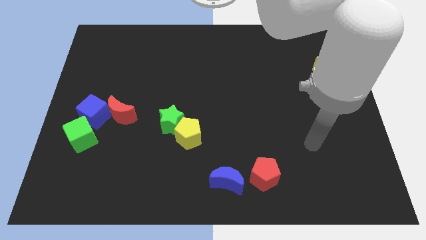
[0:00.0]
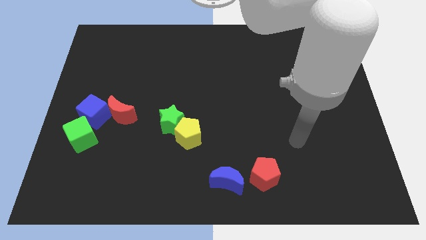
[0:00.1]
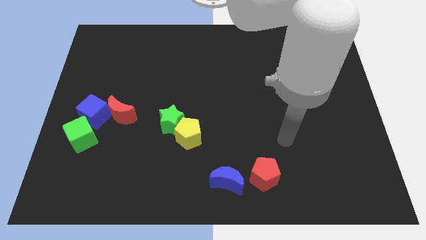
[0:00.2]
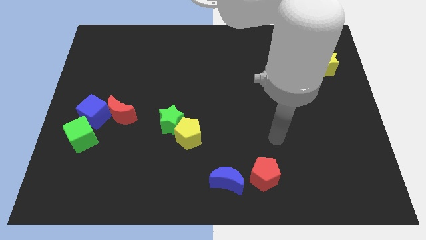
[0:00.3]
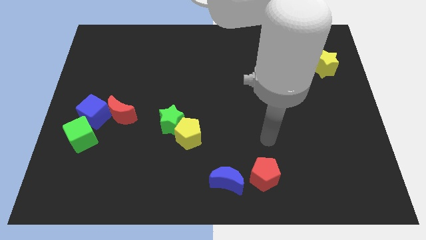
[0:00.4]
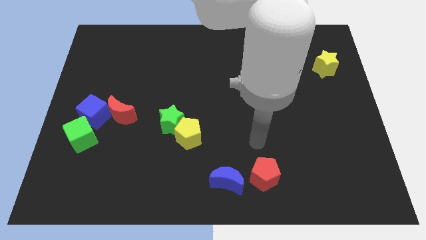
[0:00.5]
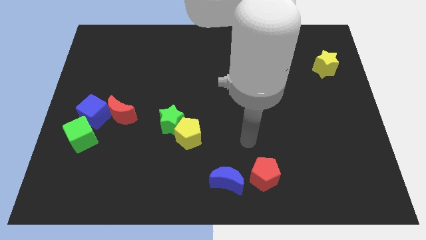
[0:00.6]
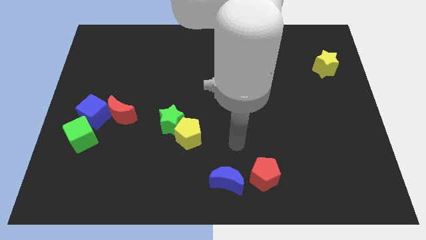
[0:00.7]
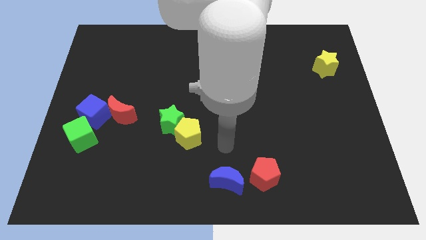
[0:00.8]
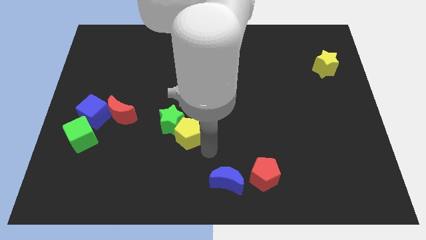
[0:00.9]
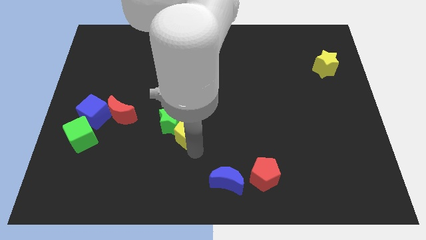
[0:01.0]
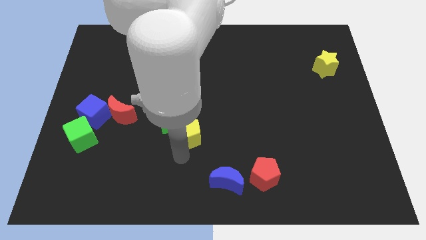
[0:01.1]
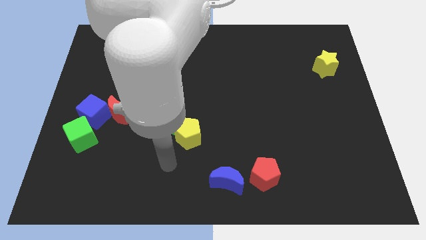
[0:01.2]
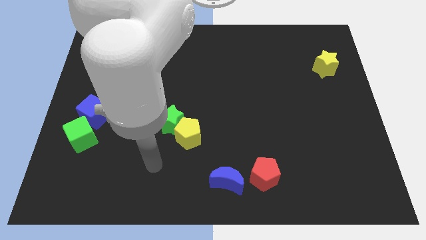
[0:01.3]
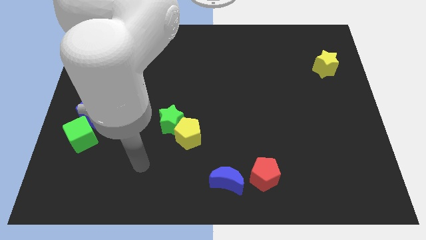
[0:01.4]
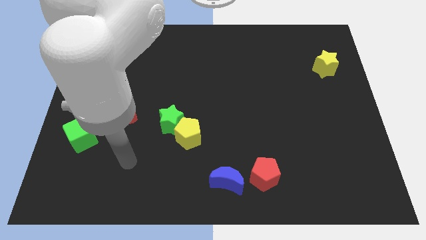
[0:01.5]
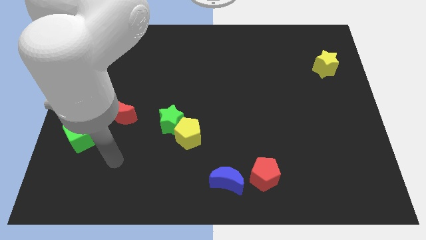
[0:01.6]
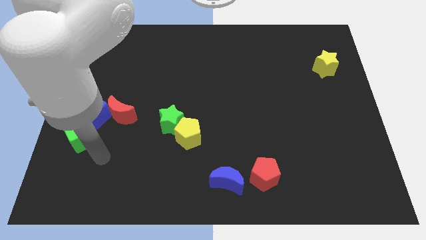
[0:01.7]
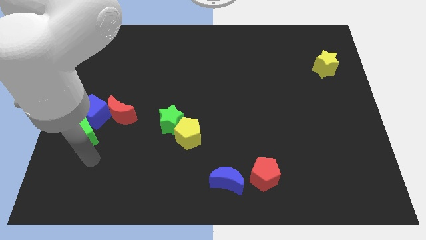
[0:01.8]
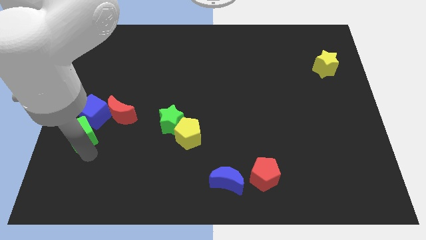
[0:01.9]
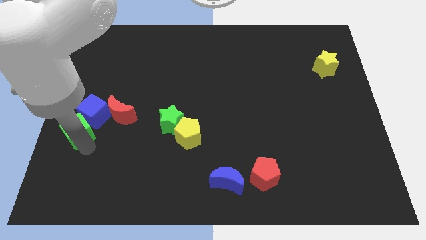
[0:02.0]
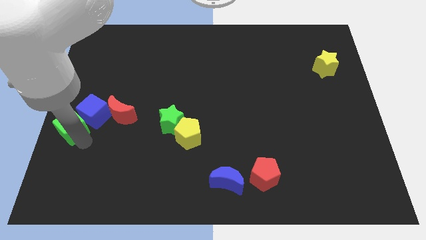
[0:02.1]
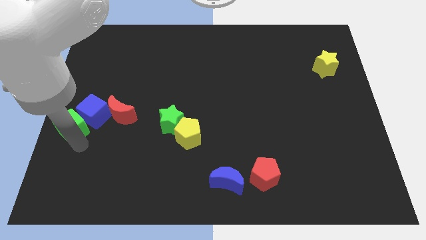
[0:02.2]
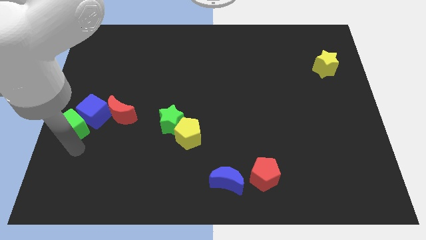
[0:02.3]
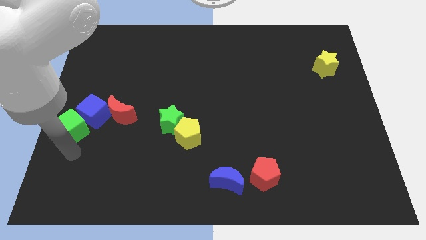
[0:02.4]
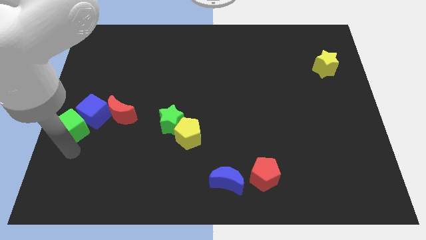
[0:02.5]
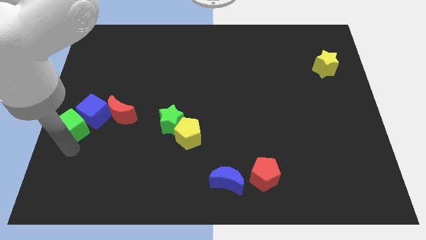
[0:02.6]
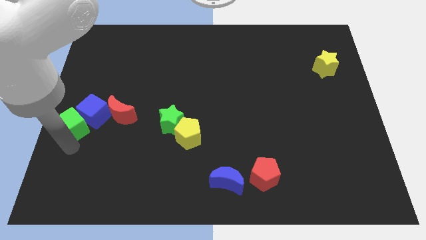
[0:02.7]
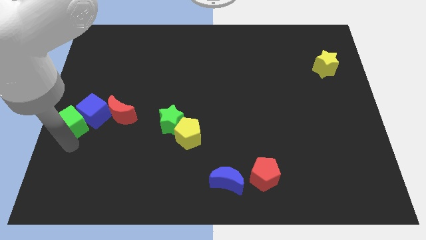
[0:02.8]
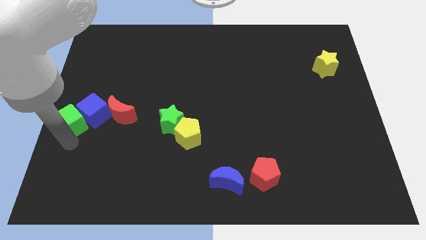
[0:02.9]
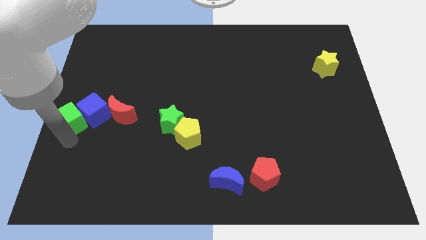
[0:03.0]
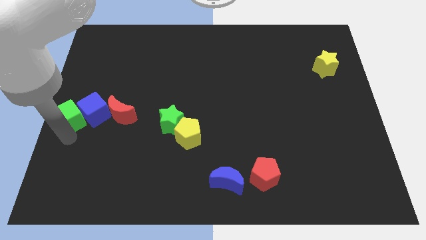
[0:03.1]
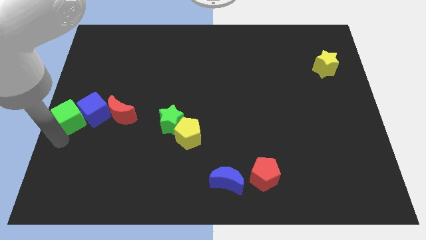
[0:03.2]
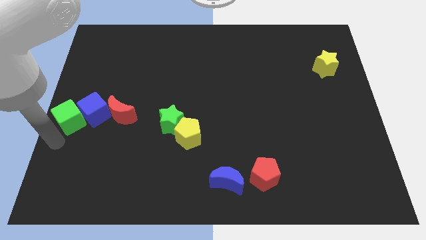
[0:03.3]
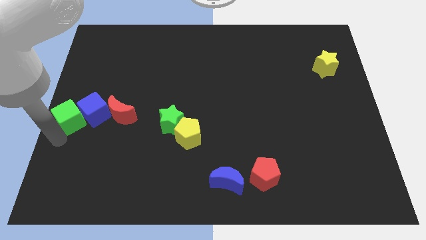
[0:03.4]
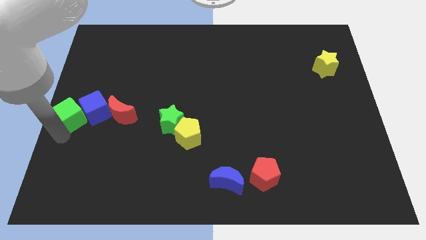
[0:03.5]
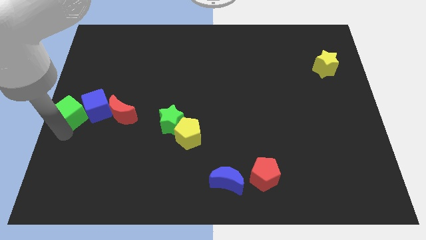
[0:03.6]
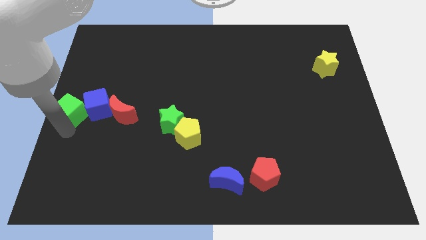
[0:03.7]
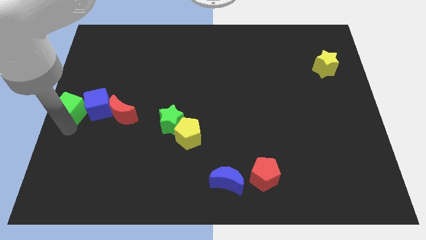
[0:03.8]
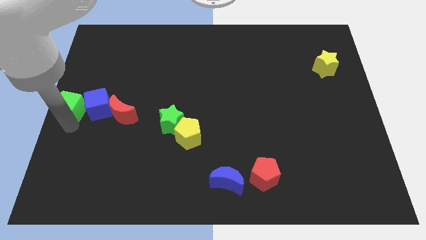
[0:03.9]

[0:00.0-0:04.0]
slightly slide the green cube up

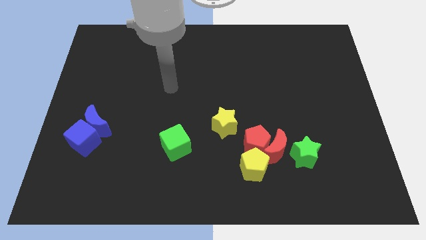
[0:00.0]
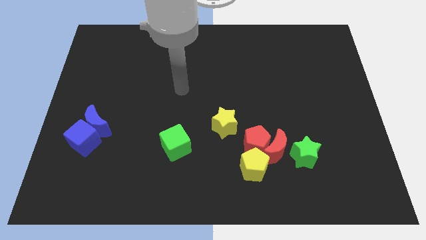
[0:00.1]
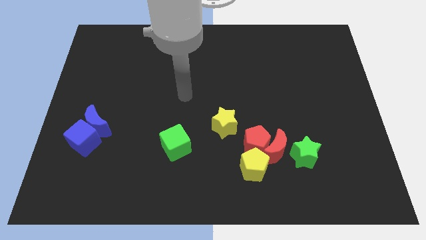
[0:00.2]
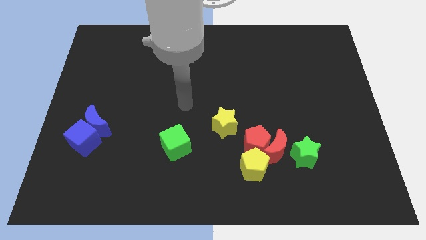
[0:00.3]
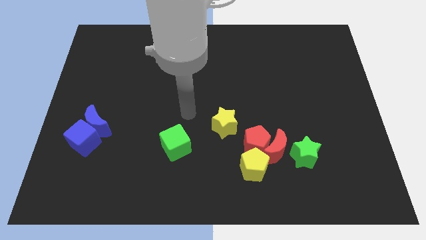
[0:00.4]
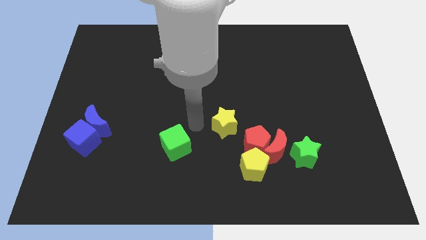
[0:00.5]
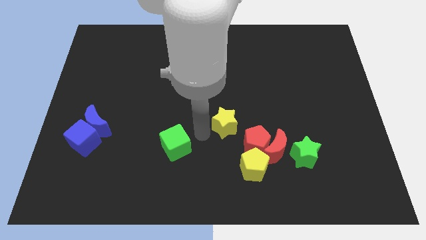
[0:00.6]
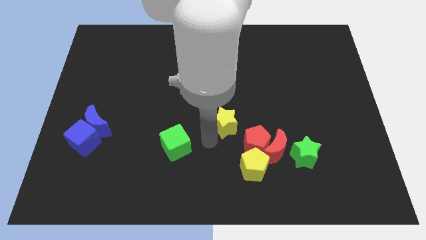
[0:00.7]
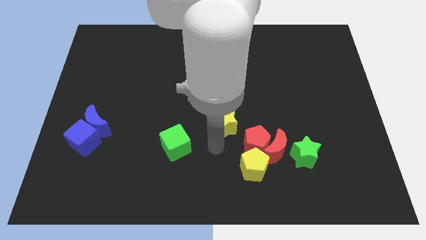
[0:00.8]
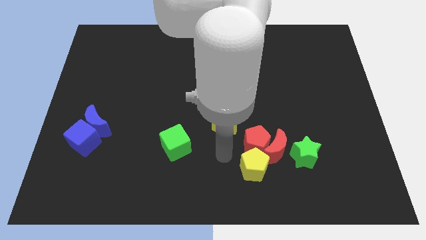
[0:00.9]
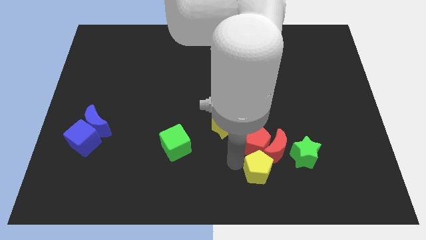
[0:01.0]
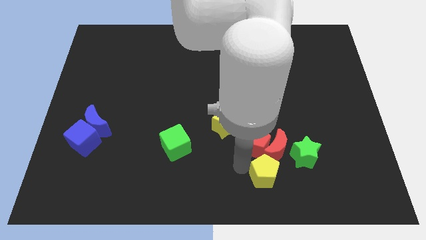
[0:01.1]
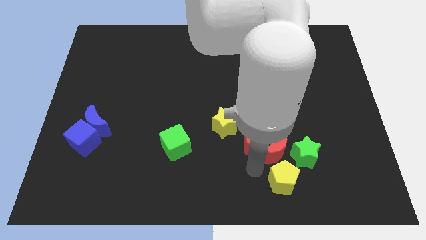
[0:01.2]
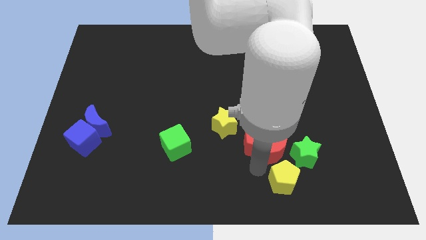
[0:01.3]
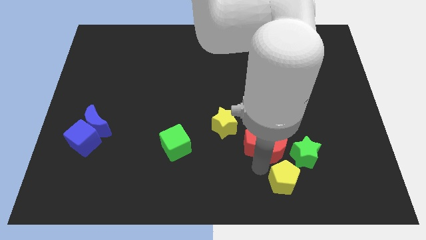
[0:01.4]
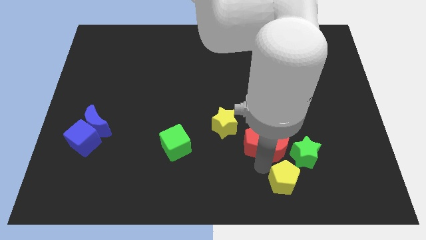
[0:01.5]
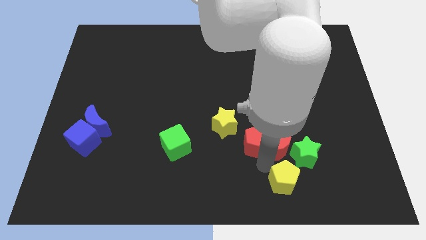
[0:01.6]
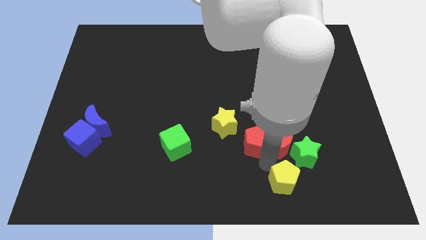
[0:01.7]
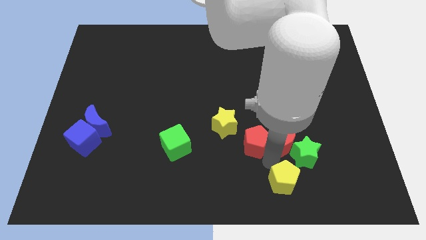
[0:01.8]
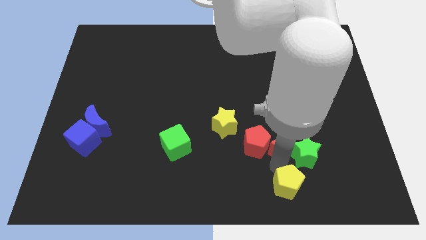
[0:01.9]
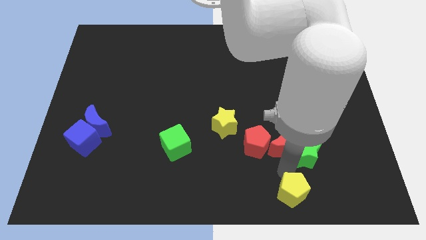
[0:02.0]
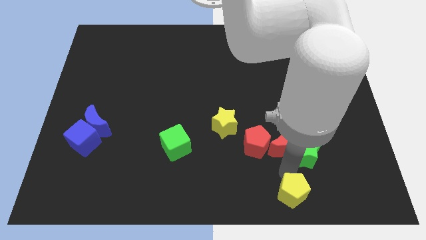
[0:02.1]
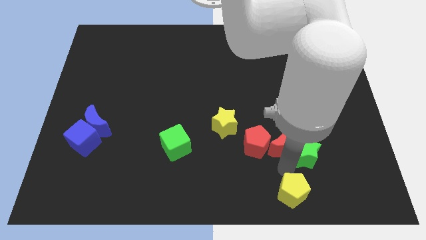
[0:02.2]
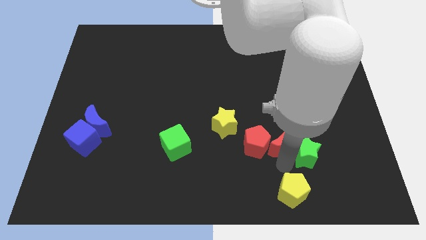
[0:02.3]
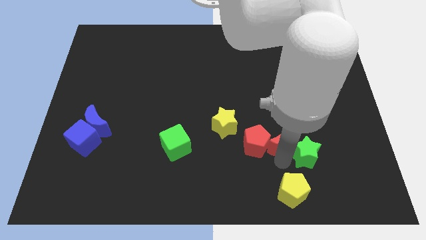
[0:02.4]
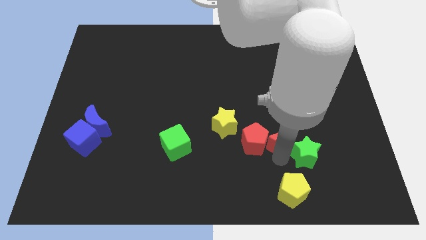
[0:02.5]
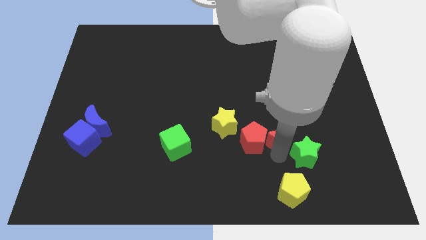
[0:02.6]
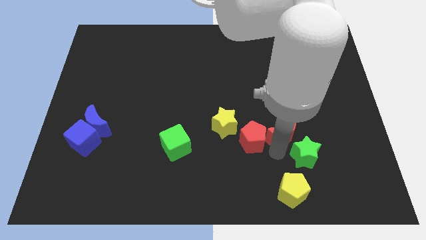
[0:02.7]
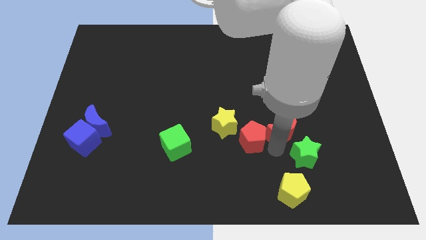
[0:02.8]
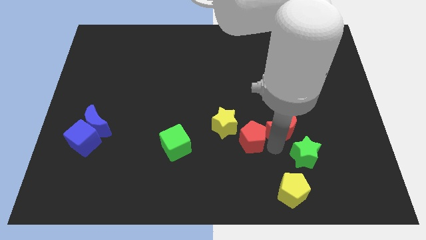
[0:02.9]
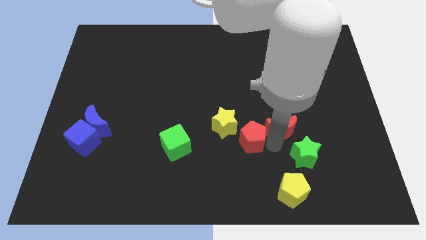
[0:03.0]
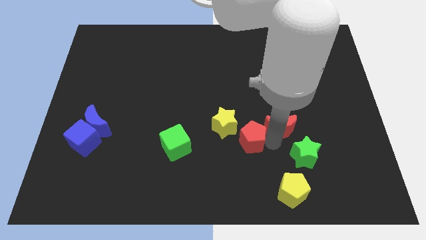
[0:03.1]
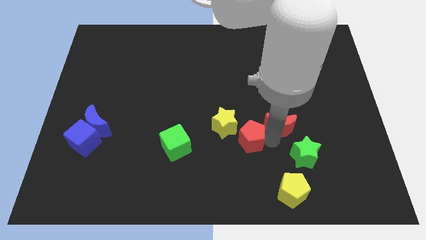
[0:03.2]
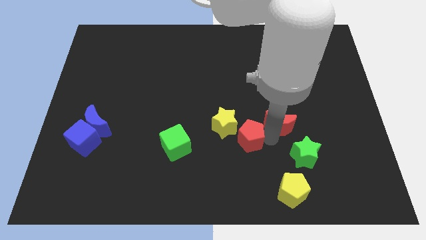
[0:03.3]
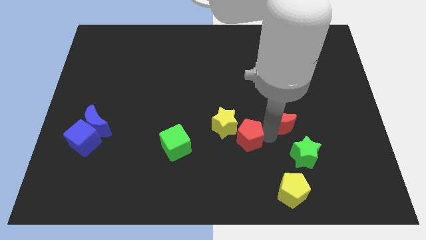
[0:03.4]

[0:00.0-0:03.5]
push the red moon slightly up

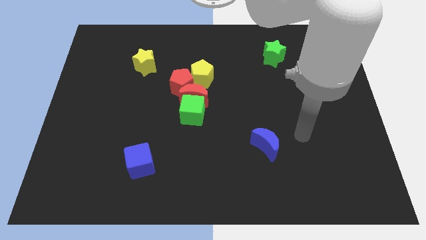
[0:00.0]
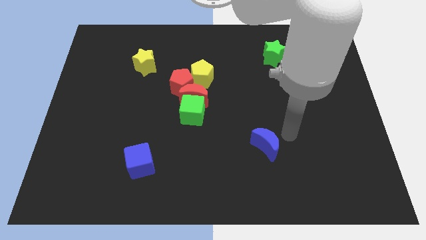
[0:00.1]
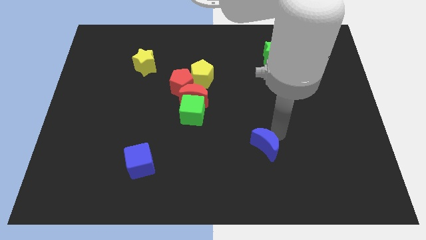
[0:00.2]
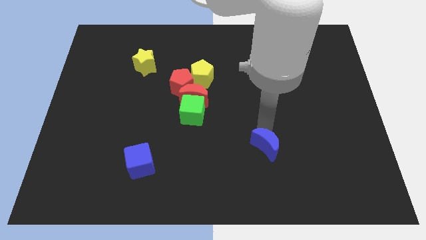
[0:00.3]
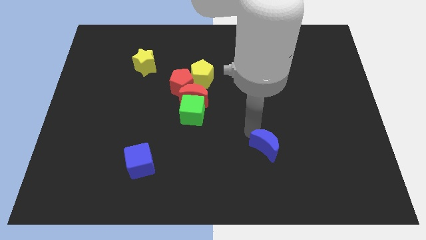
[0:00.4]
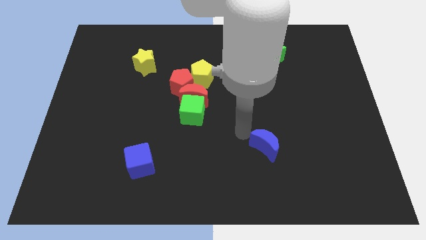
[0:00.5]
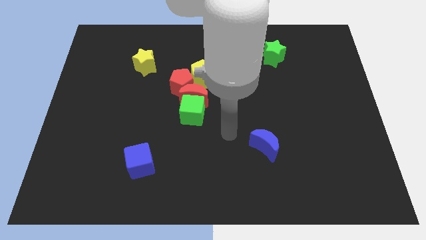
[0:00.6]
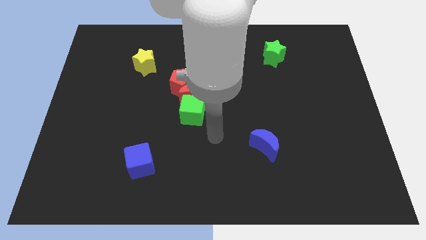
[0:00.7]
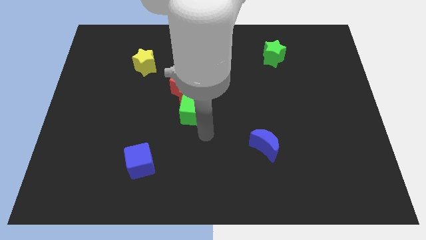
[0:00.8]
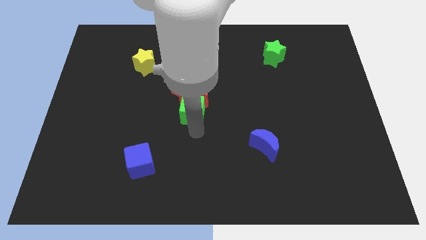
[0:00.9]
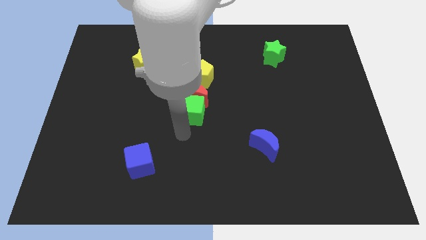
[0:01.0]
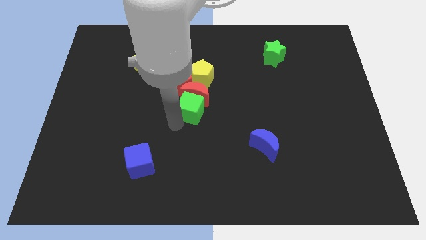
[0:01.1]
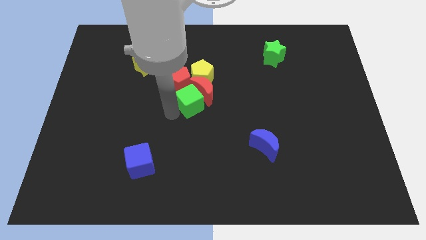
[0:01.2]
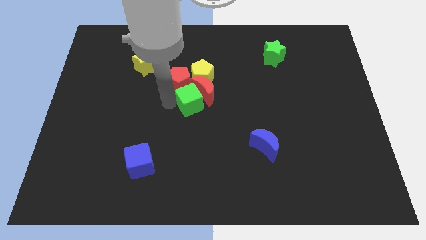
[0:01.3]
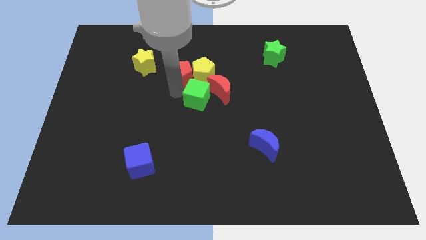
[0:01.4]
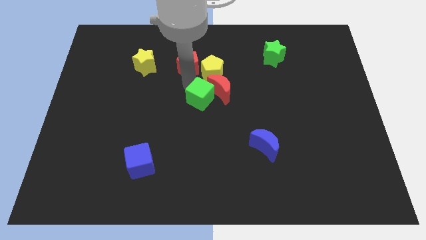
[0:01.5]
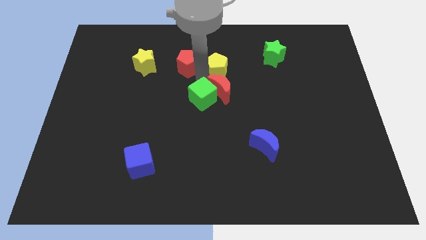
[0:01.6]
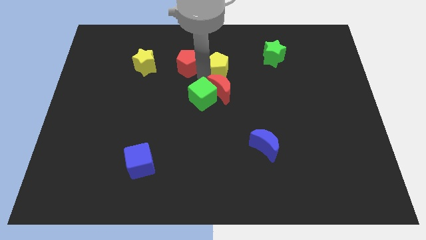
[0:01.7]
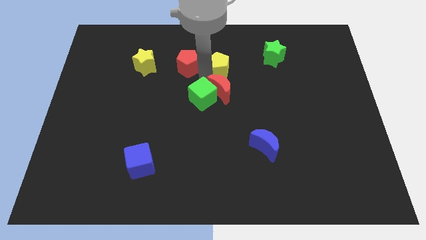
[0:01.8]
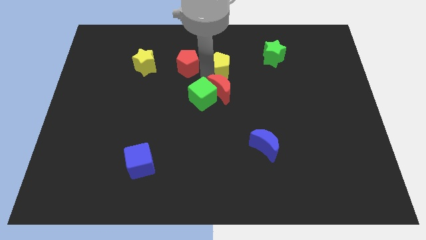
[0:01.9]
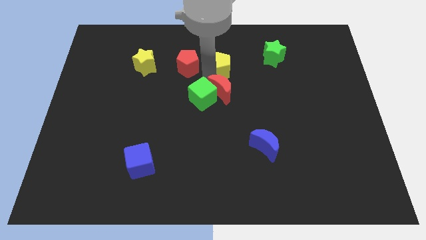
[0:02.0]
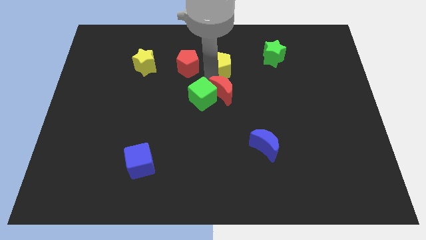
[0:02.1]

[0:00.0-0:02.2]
slide the red moon slightly right
